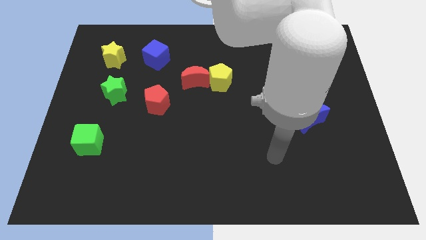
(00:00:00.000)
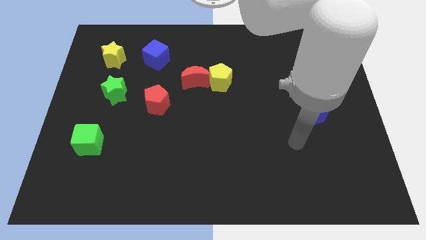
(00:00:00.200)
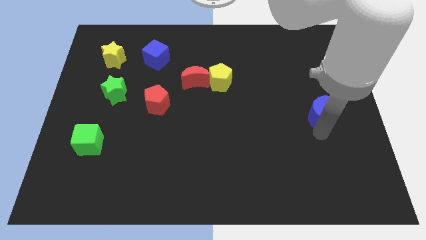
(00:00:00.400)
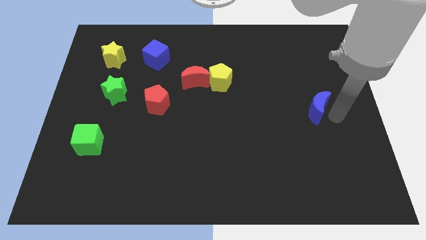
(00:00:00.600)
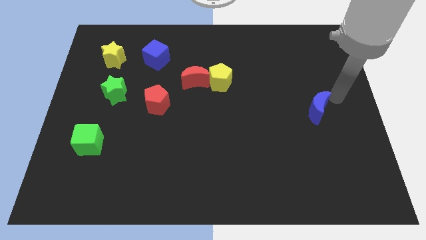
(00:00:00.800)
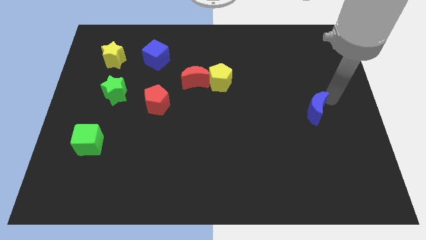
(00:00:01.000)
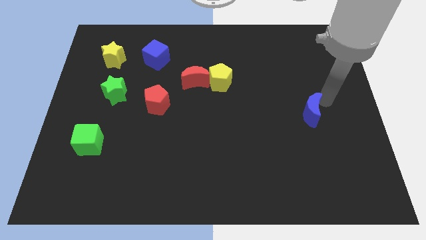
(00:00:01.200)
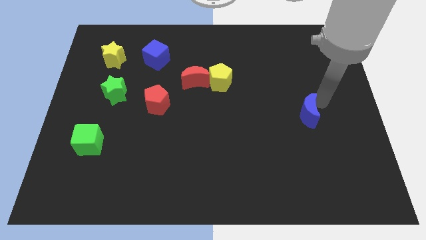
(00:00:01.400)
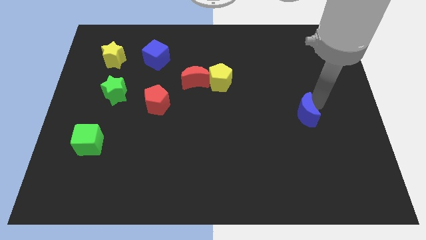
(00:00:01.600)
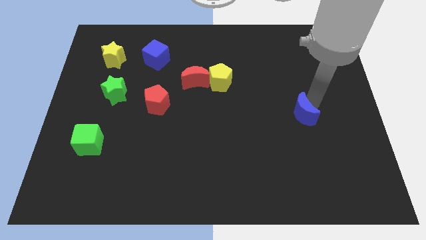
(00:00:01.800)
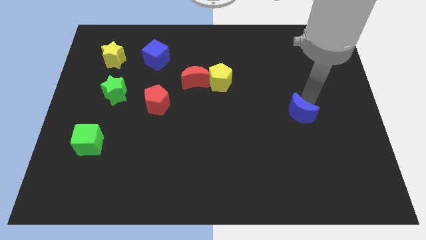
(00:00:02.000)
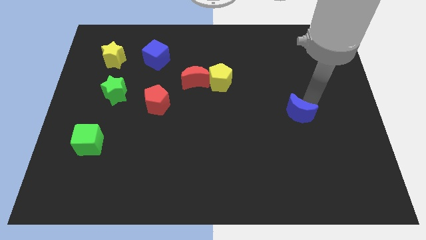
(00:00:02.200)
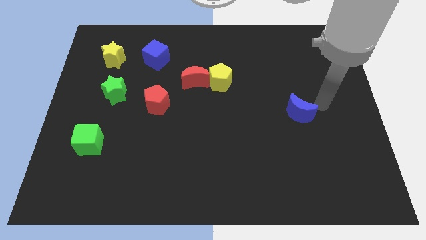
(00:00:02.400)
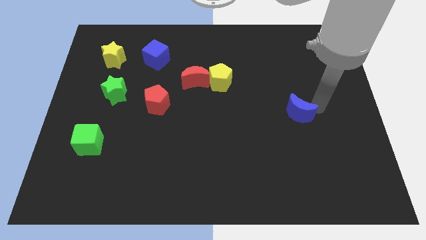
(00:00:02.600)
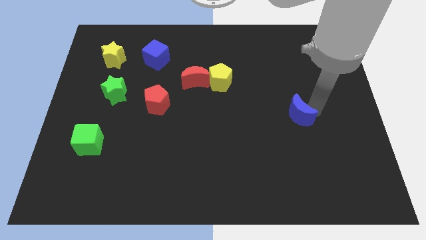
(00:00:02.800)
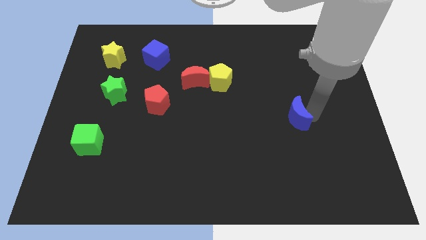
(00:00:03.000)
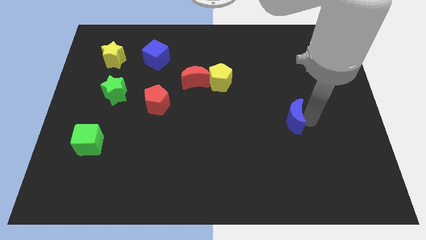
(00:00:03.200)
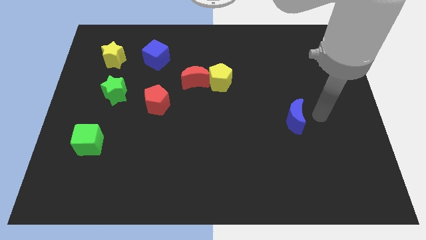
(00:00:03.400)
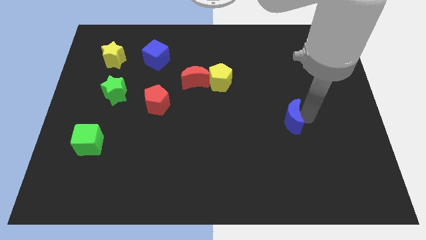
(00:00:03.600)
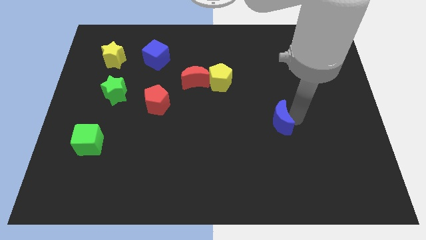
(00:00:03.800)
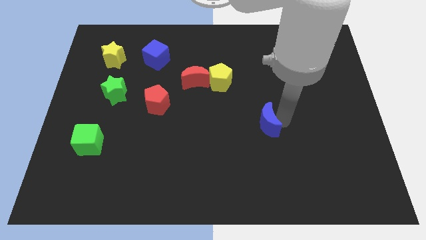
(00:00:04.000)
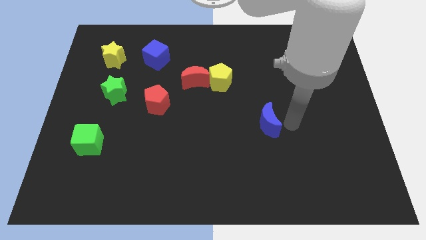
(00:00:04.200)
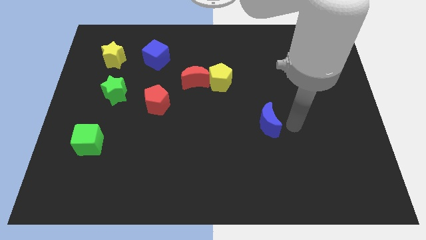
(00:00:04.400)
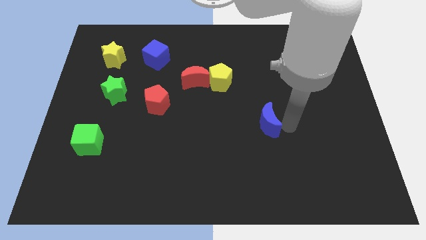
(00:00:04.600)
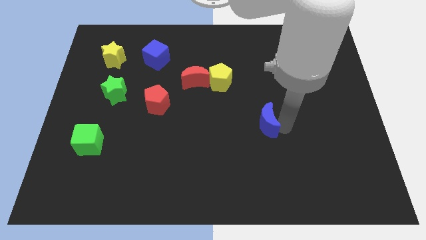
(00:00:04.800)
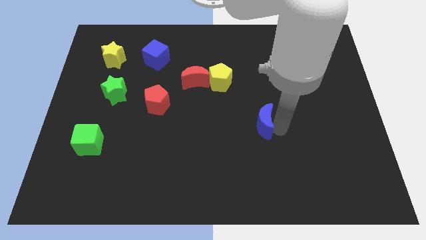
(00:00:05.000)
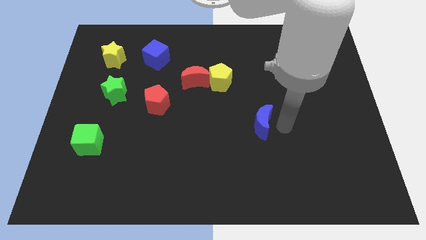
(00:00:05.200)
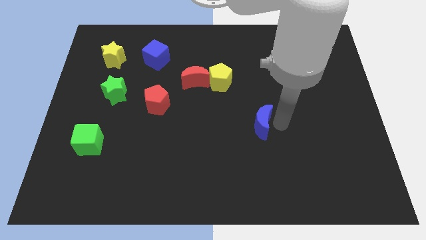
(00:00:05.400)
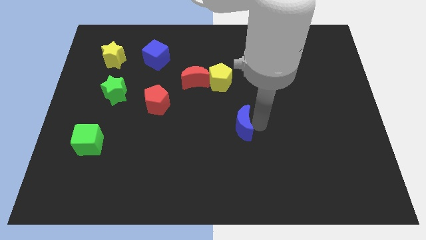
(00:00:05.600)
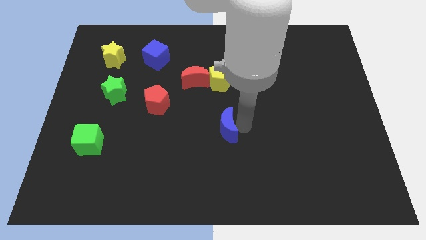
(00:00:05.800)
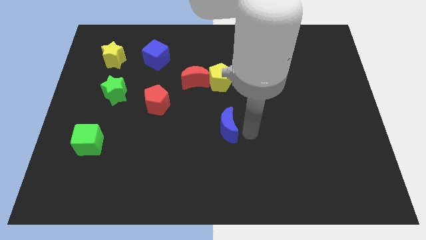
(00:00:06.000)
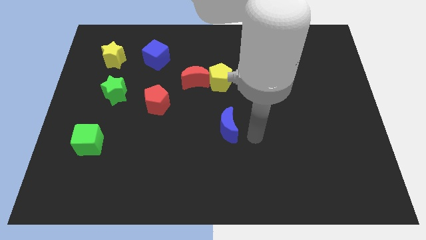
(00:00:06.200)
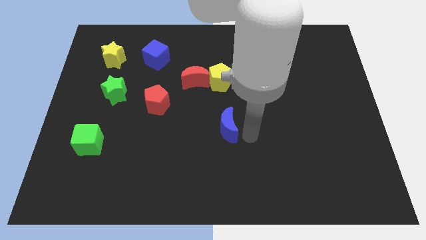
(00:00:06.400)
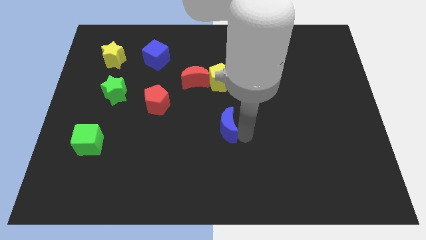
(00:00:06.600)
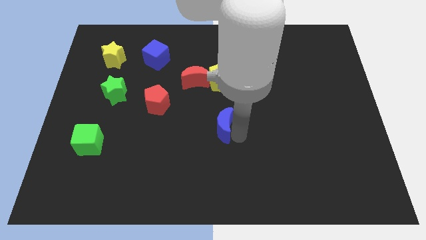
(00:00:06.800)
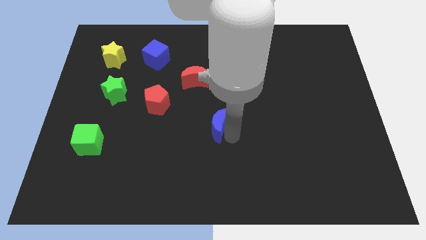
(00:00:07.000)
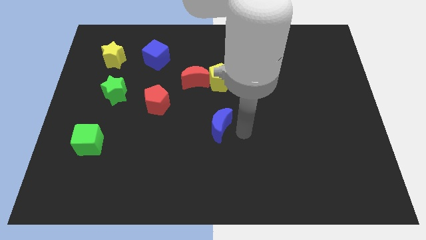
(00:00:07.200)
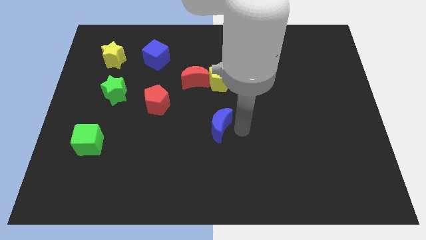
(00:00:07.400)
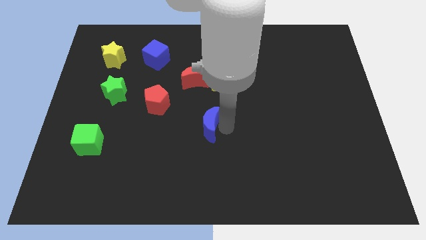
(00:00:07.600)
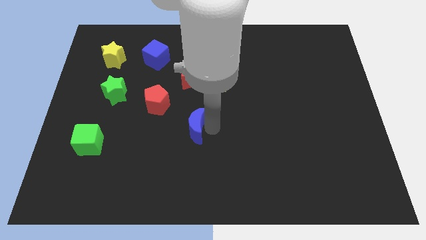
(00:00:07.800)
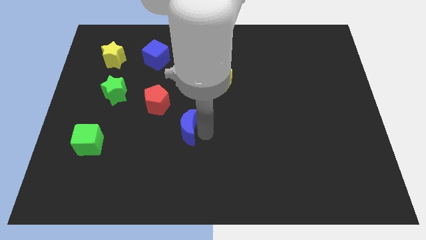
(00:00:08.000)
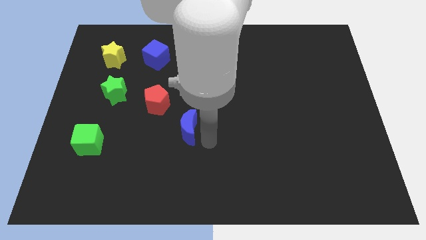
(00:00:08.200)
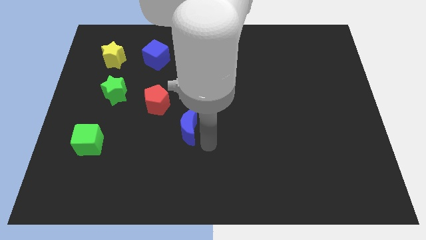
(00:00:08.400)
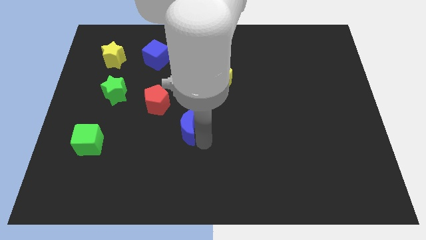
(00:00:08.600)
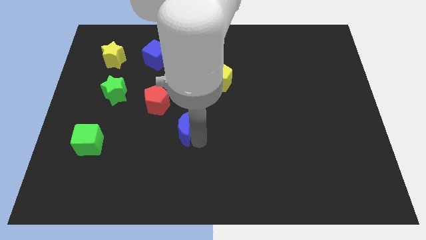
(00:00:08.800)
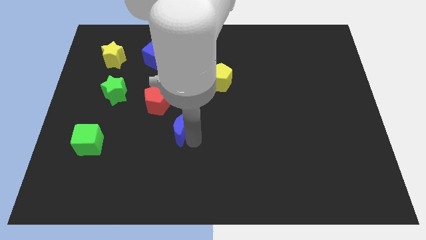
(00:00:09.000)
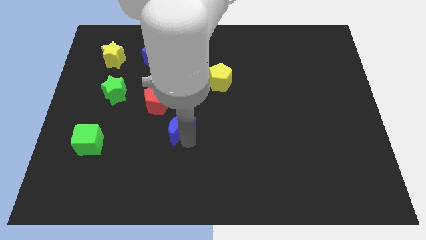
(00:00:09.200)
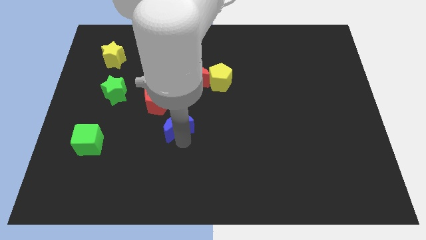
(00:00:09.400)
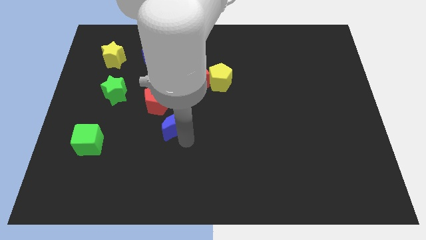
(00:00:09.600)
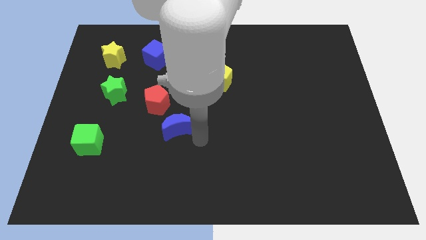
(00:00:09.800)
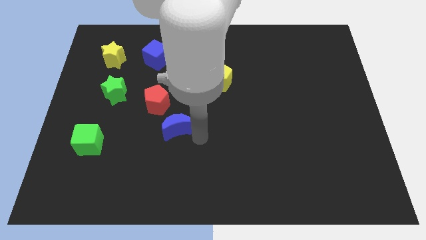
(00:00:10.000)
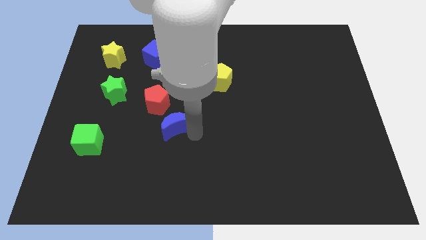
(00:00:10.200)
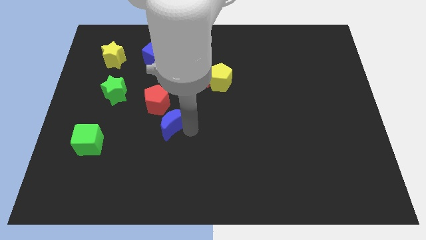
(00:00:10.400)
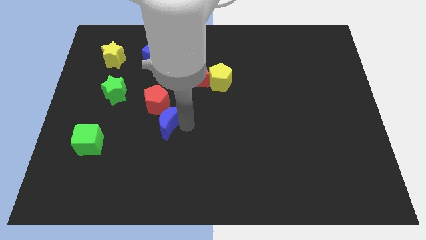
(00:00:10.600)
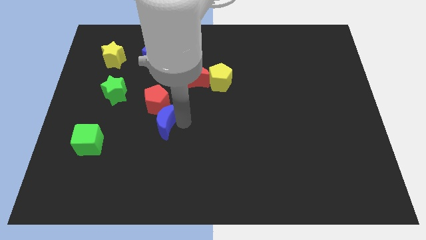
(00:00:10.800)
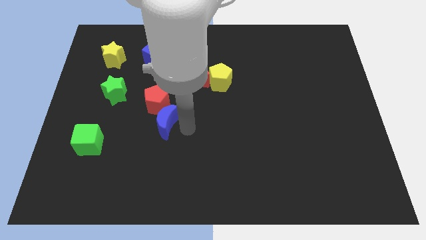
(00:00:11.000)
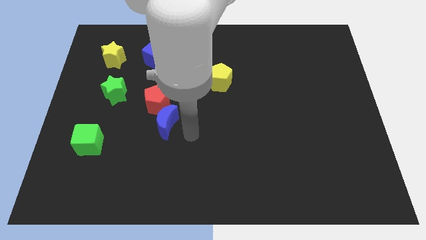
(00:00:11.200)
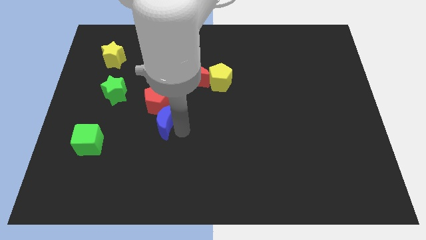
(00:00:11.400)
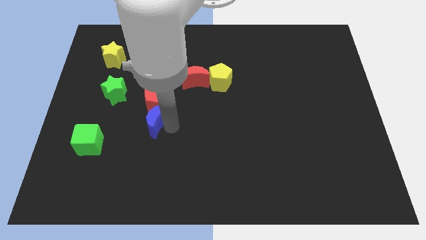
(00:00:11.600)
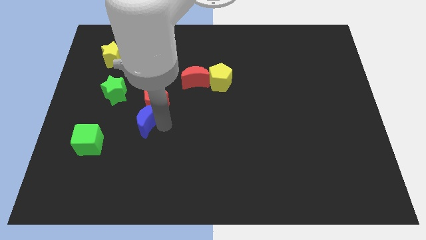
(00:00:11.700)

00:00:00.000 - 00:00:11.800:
put the blue moon to the bottom right side of the green star
